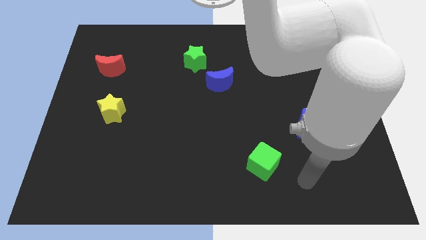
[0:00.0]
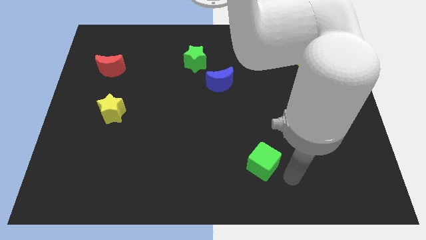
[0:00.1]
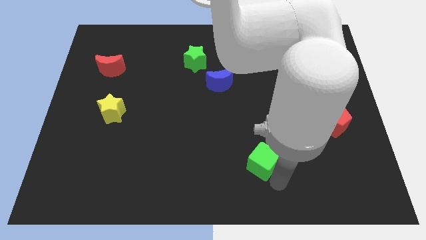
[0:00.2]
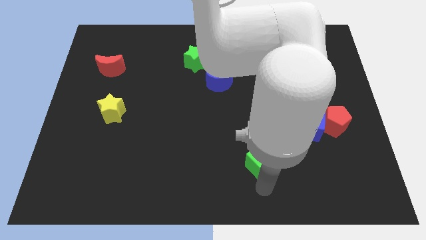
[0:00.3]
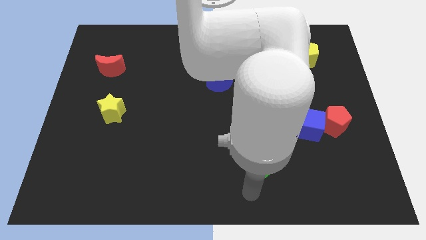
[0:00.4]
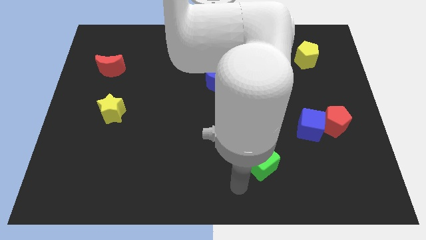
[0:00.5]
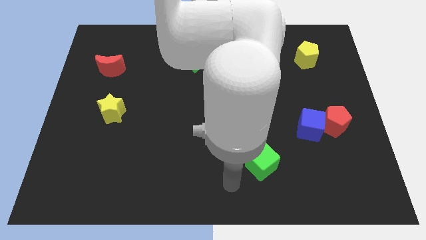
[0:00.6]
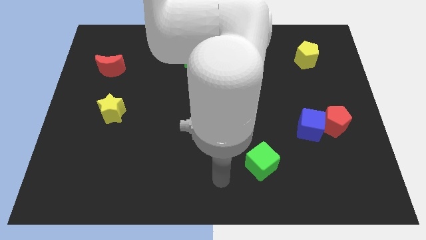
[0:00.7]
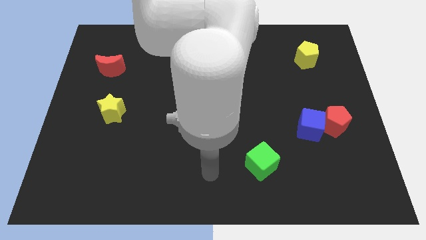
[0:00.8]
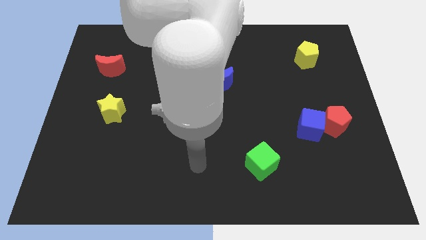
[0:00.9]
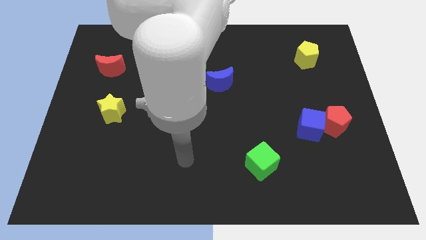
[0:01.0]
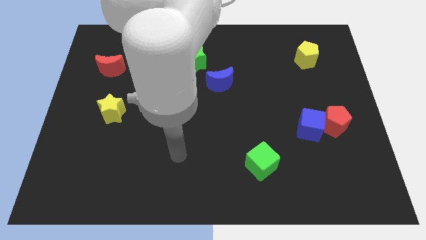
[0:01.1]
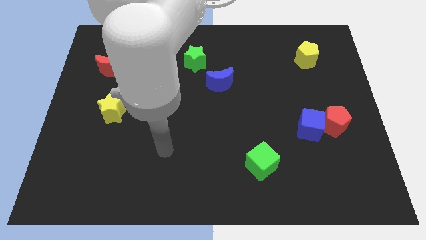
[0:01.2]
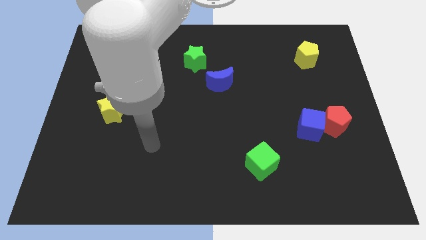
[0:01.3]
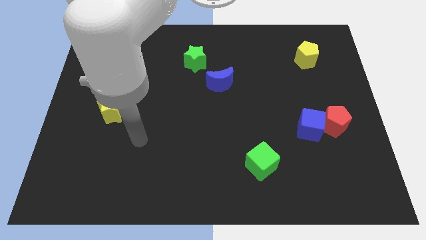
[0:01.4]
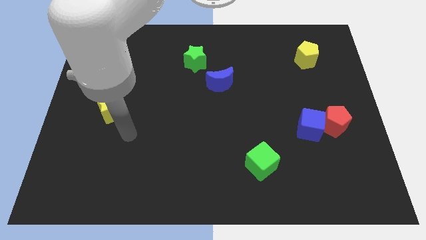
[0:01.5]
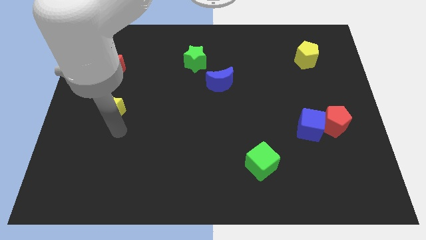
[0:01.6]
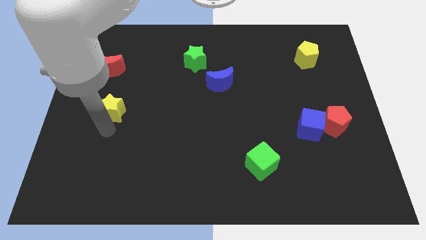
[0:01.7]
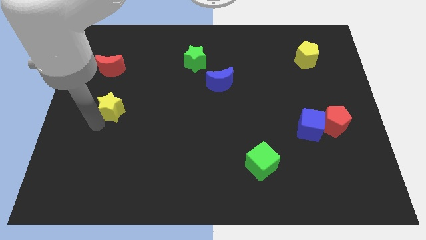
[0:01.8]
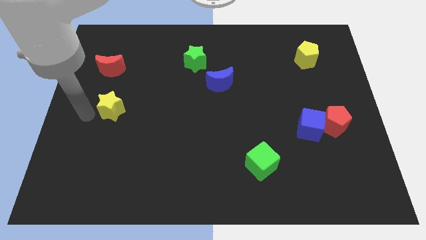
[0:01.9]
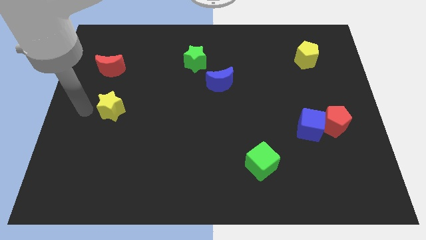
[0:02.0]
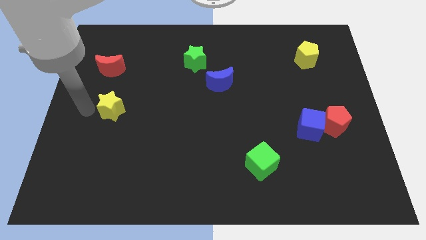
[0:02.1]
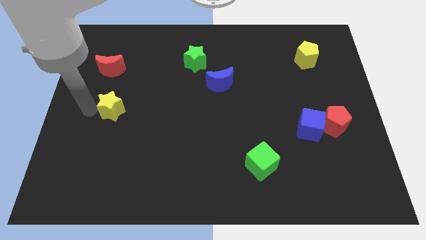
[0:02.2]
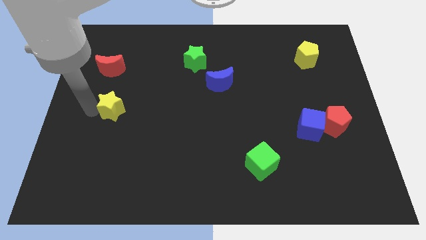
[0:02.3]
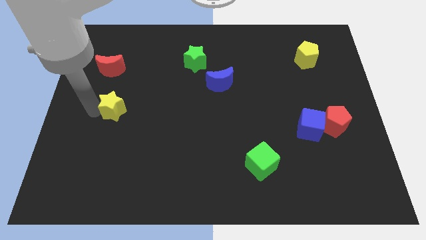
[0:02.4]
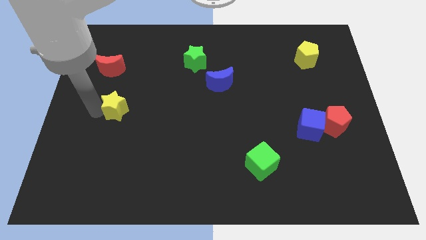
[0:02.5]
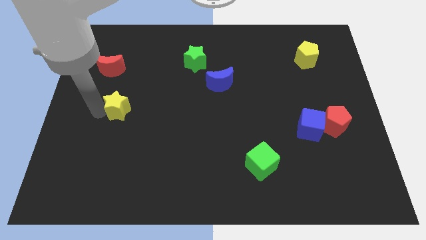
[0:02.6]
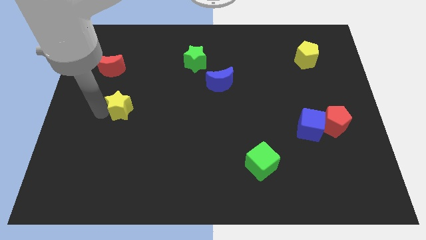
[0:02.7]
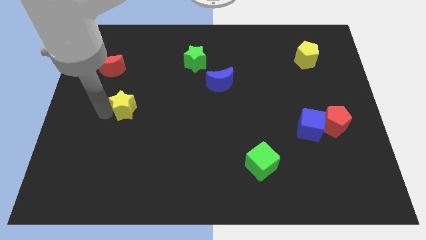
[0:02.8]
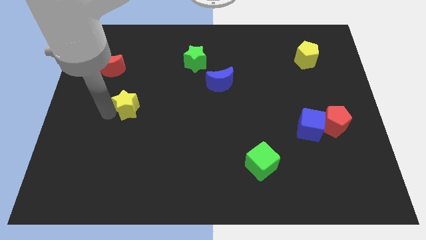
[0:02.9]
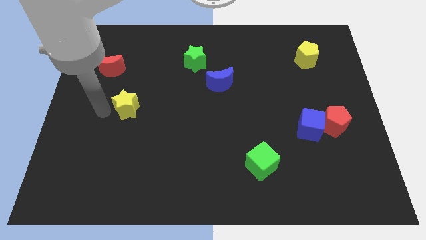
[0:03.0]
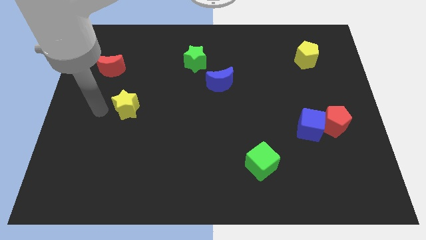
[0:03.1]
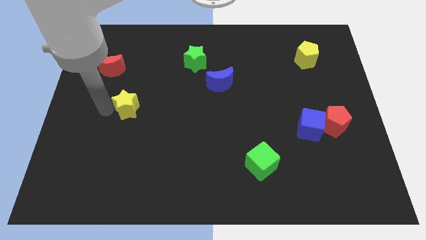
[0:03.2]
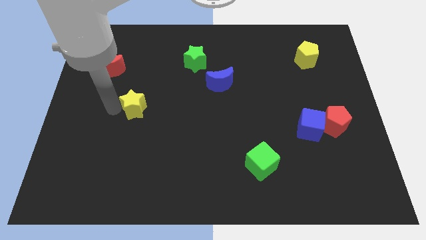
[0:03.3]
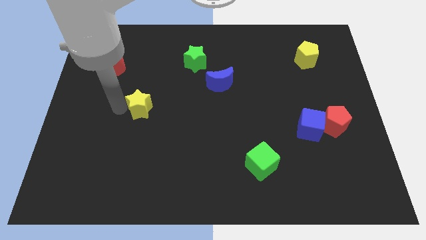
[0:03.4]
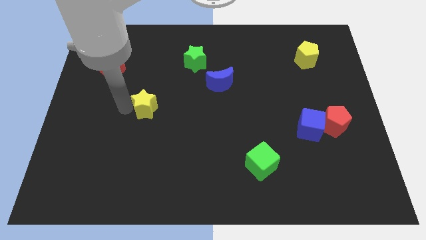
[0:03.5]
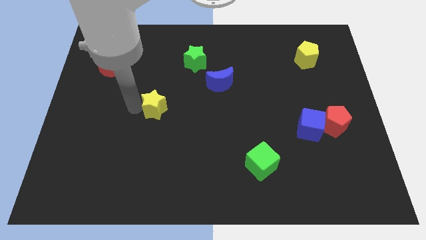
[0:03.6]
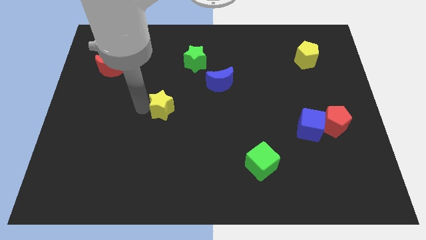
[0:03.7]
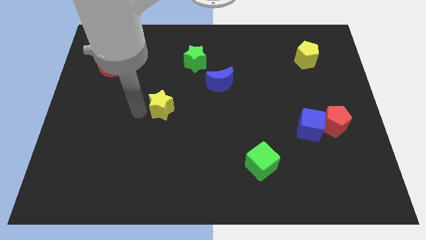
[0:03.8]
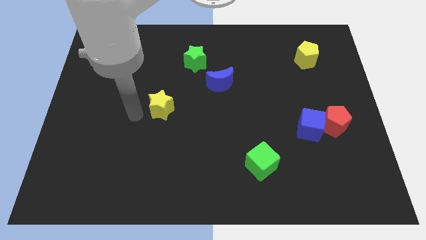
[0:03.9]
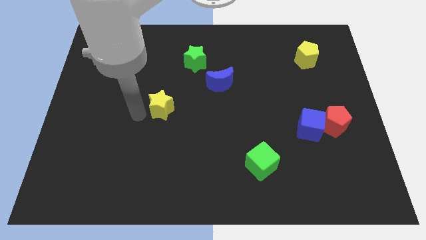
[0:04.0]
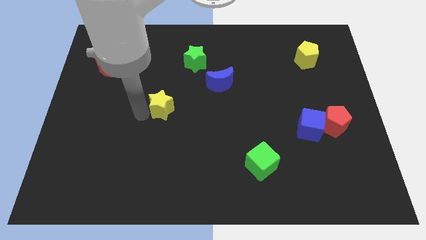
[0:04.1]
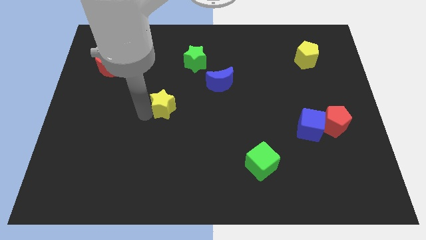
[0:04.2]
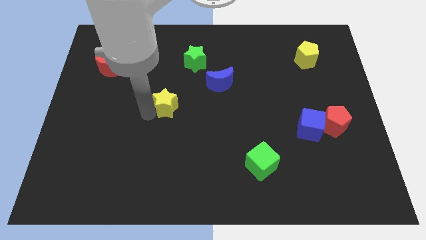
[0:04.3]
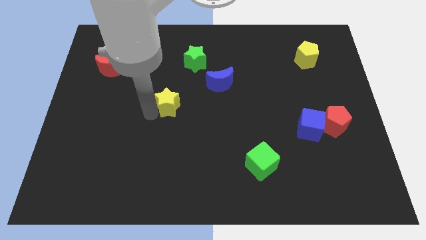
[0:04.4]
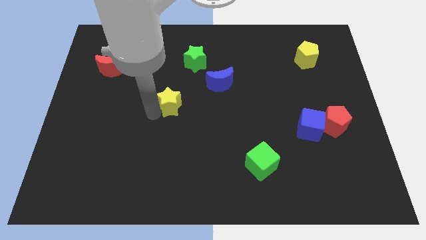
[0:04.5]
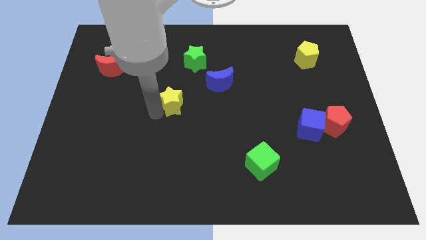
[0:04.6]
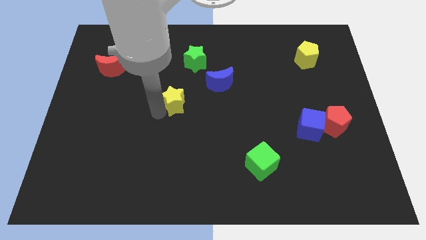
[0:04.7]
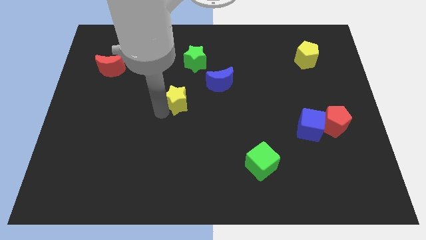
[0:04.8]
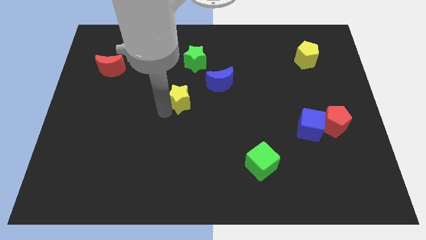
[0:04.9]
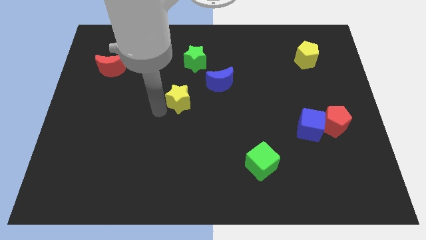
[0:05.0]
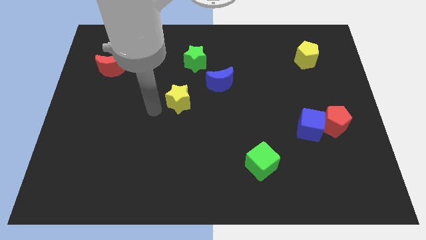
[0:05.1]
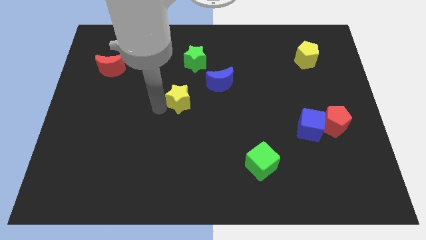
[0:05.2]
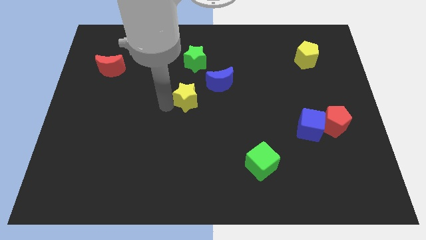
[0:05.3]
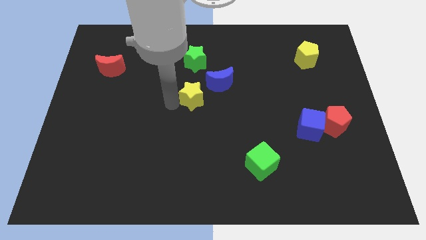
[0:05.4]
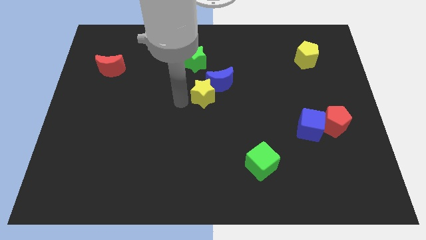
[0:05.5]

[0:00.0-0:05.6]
move the yellow star close to the blue moon

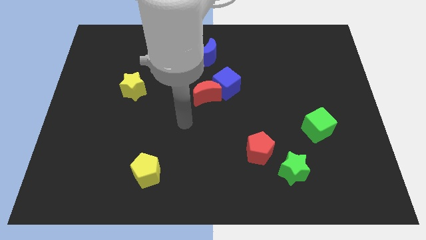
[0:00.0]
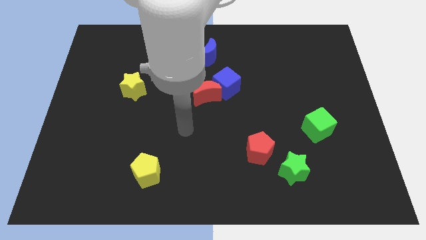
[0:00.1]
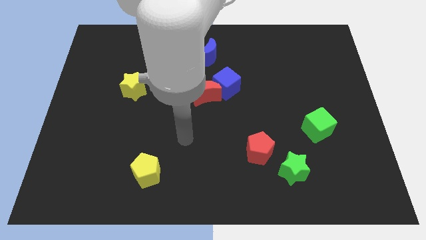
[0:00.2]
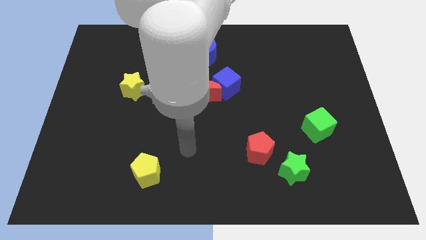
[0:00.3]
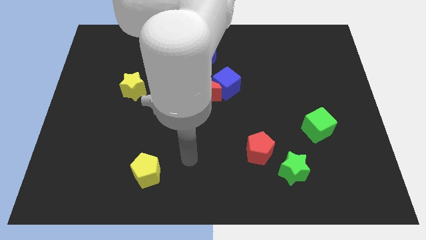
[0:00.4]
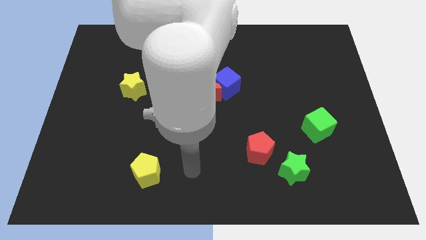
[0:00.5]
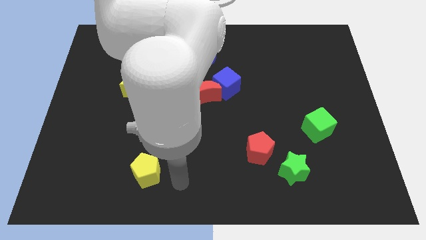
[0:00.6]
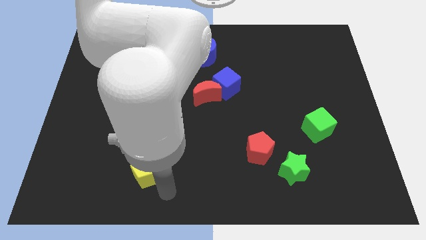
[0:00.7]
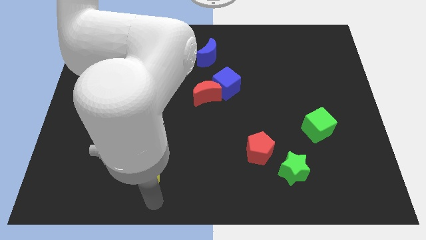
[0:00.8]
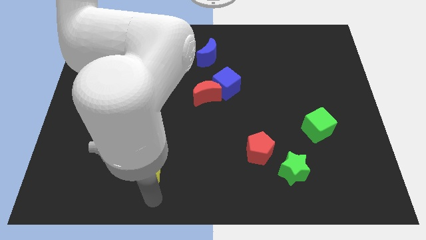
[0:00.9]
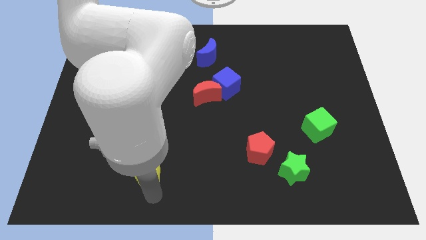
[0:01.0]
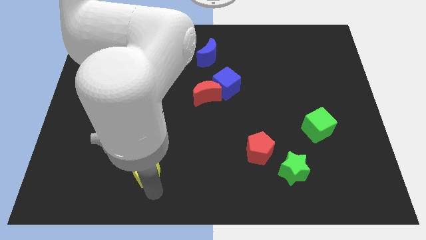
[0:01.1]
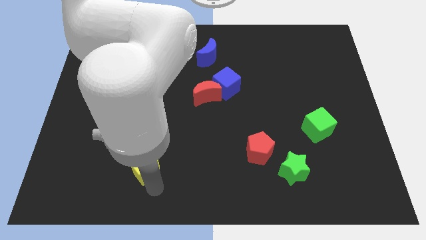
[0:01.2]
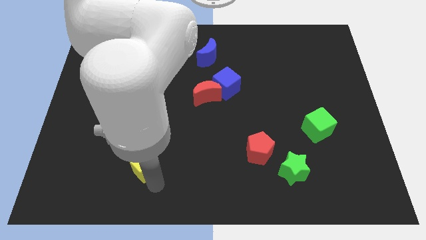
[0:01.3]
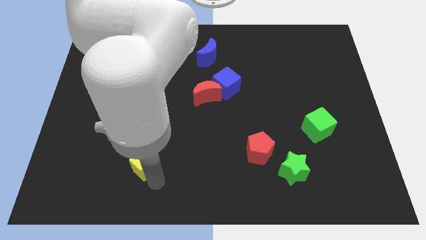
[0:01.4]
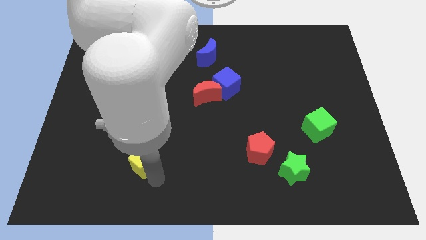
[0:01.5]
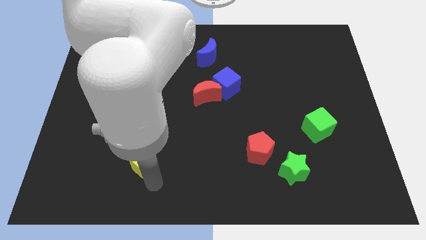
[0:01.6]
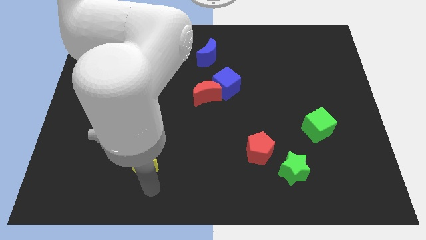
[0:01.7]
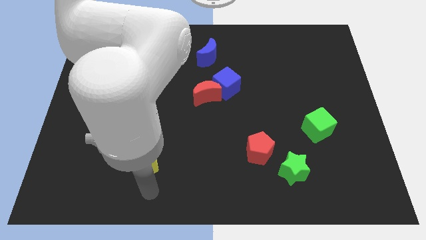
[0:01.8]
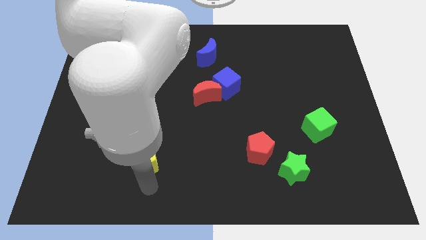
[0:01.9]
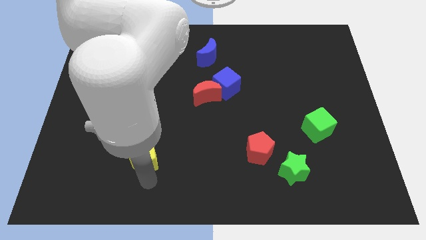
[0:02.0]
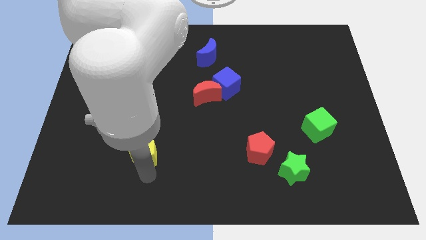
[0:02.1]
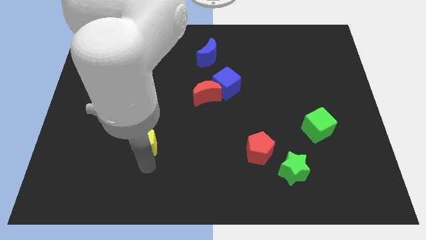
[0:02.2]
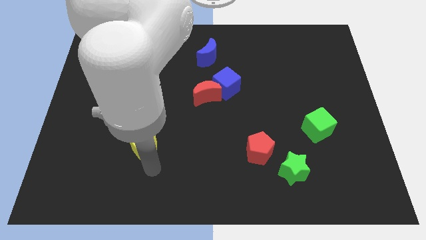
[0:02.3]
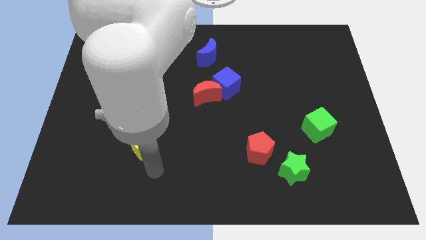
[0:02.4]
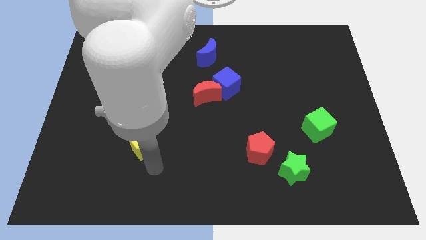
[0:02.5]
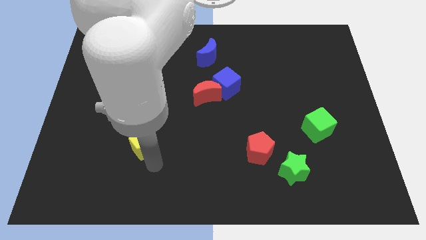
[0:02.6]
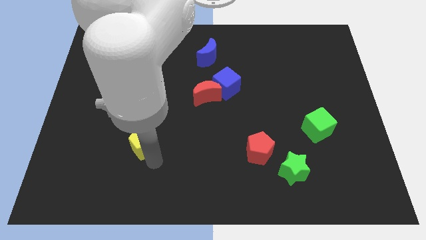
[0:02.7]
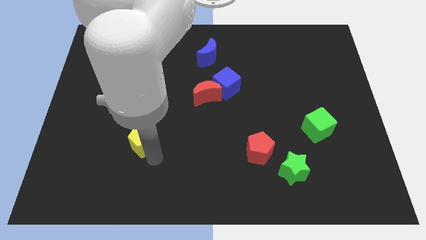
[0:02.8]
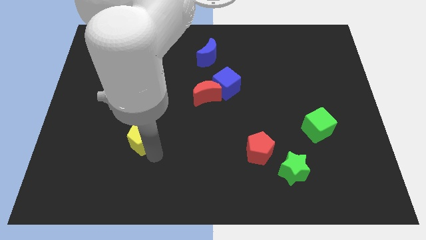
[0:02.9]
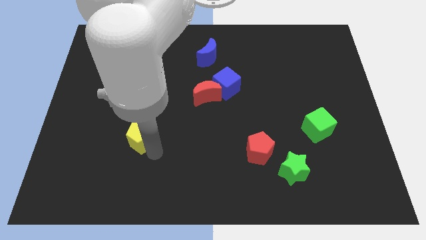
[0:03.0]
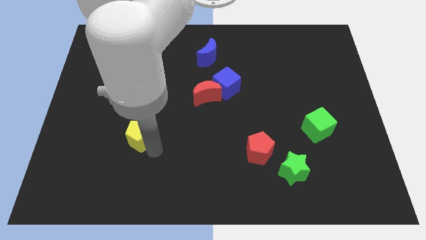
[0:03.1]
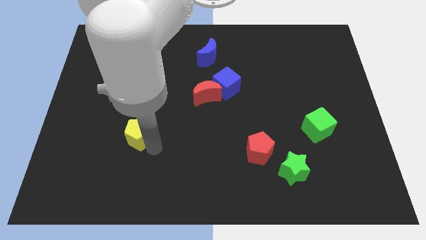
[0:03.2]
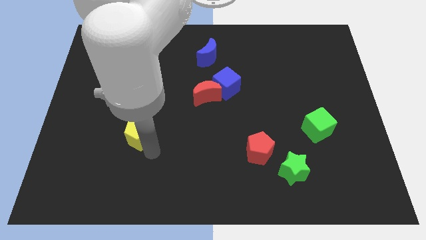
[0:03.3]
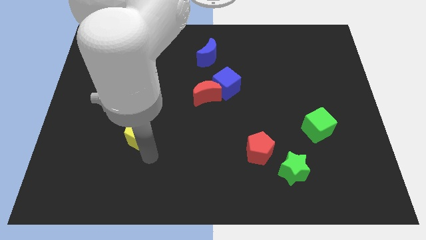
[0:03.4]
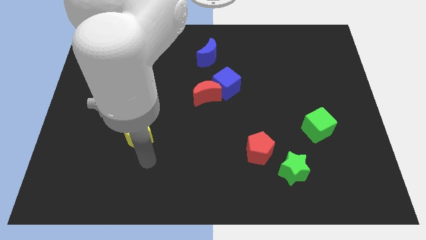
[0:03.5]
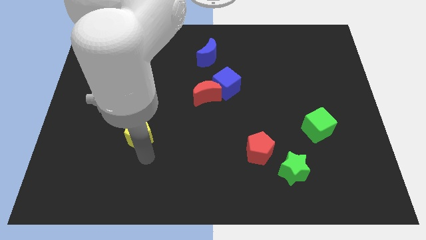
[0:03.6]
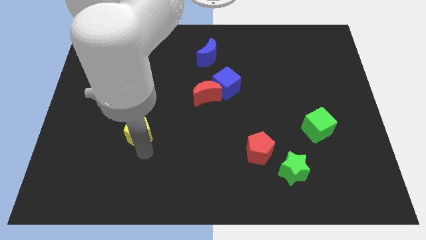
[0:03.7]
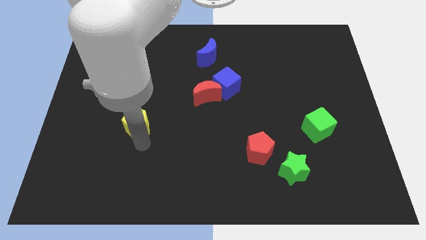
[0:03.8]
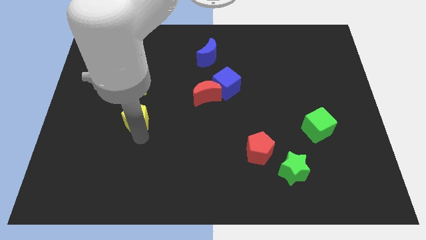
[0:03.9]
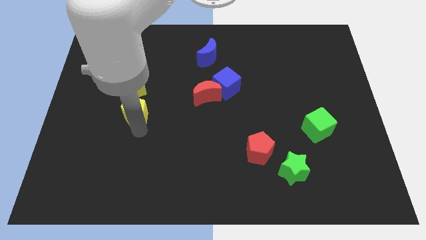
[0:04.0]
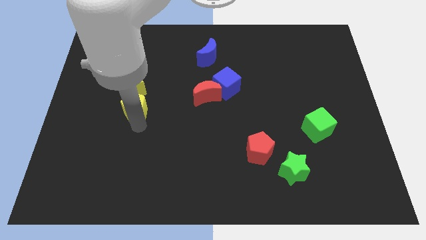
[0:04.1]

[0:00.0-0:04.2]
slide the yellow pentagon close to the yellow star
